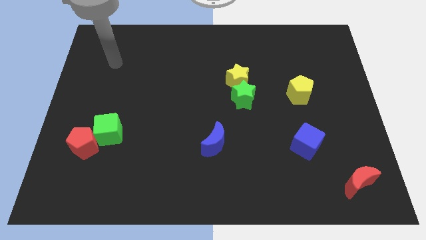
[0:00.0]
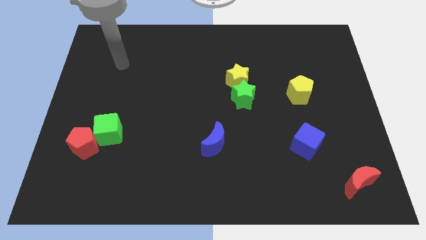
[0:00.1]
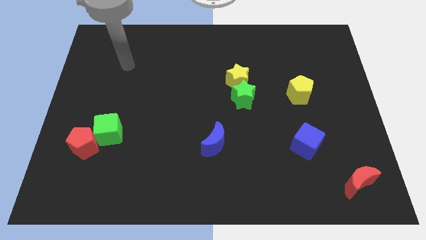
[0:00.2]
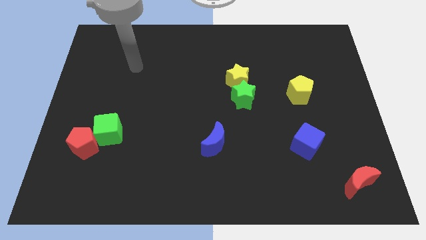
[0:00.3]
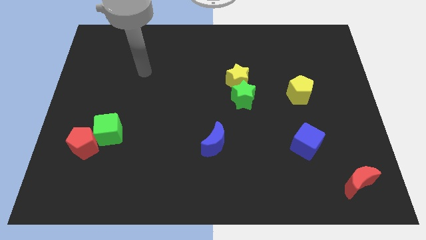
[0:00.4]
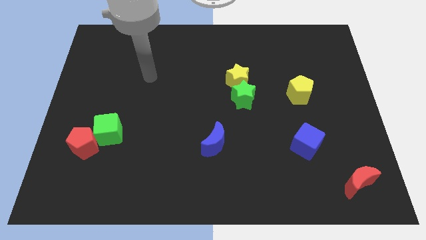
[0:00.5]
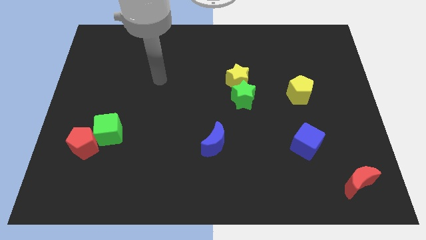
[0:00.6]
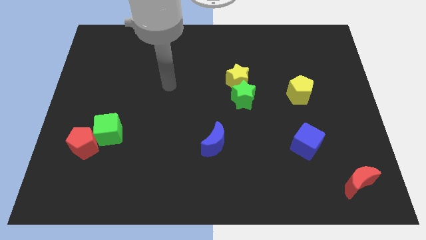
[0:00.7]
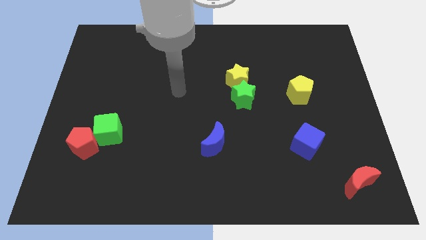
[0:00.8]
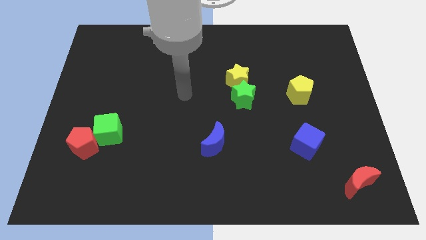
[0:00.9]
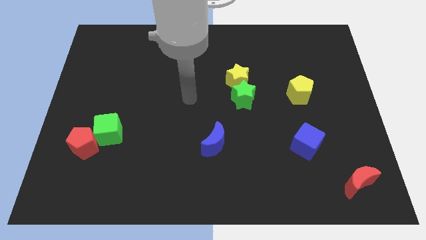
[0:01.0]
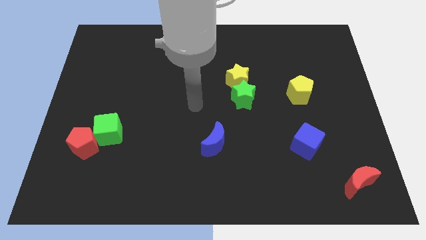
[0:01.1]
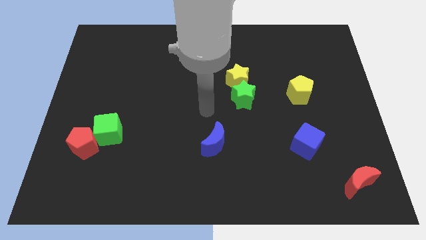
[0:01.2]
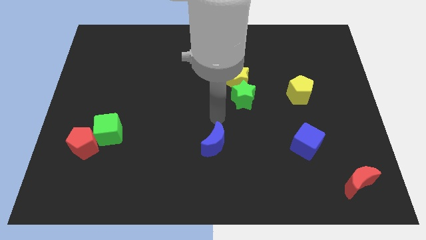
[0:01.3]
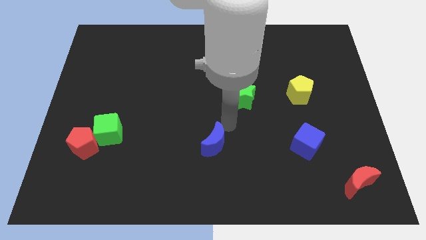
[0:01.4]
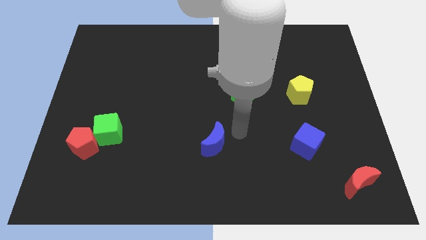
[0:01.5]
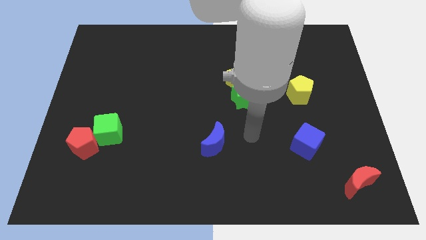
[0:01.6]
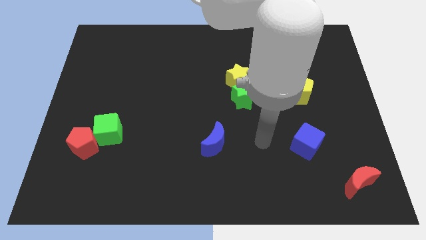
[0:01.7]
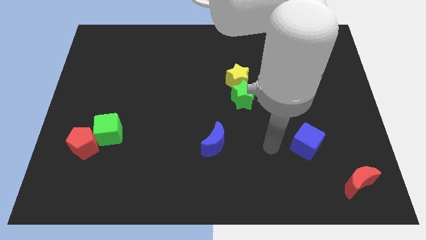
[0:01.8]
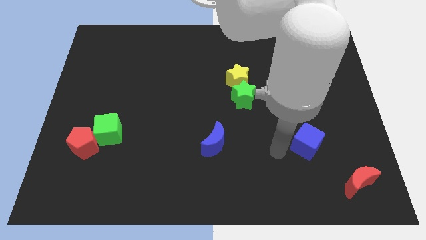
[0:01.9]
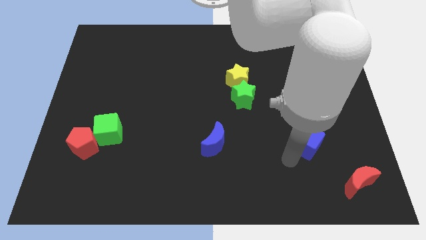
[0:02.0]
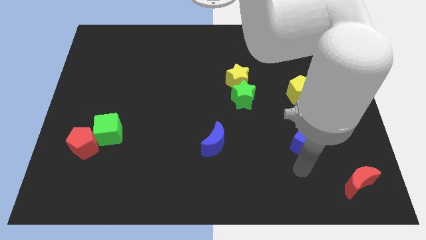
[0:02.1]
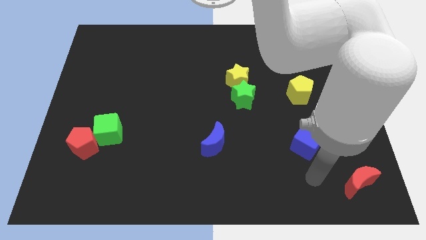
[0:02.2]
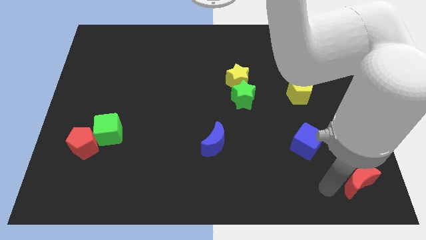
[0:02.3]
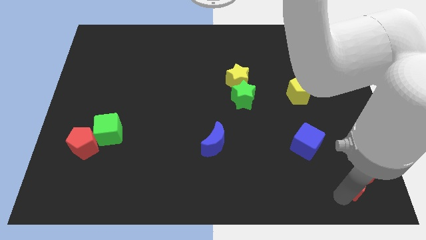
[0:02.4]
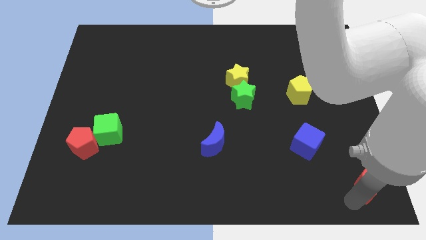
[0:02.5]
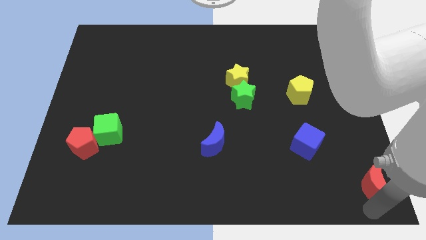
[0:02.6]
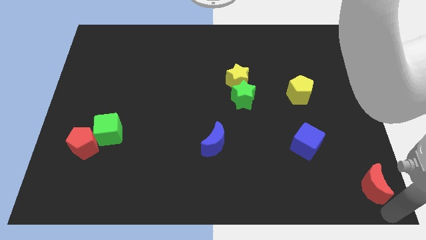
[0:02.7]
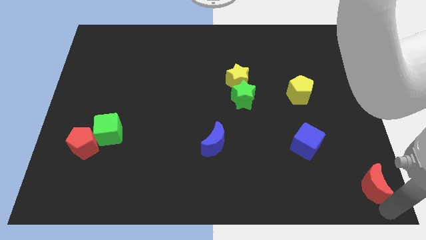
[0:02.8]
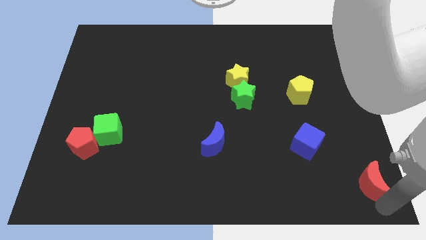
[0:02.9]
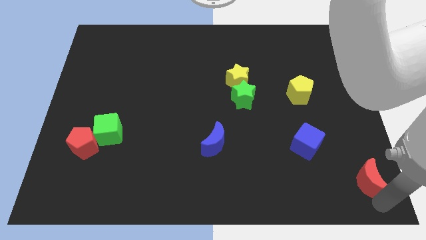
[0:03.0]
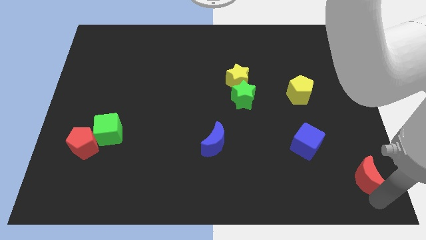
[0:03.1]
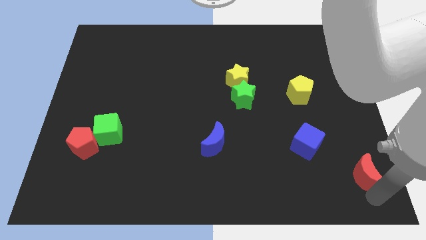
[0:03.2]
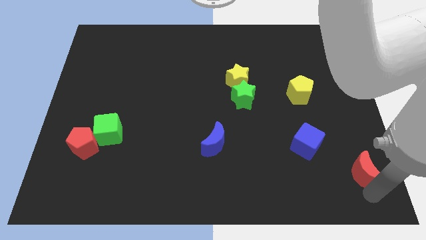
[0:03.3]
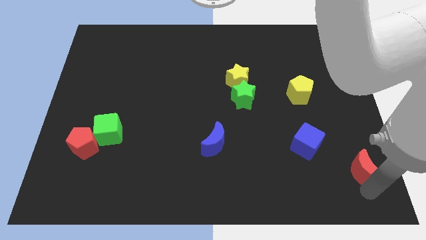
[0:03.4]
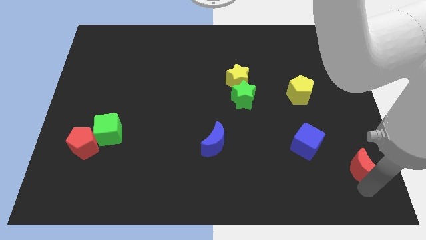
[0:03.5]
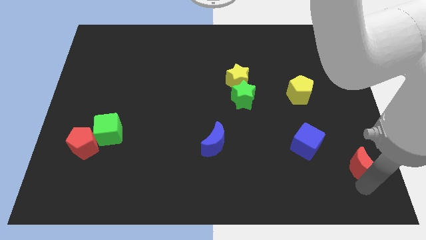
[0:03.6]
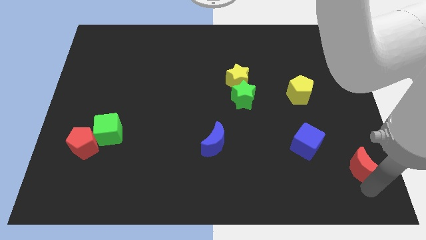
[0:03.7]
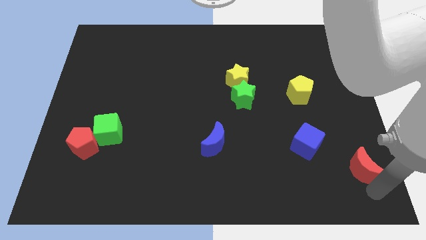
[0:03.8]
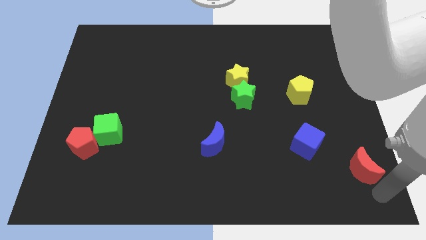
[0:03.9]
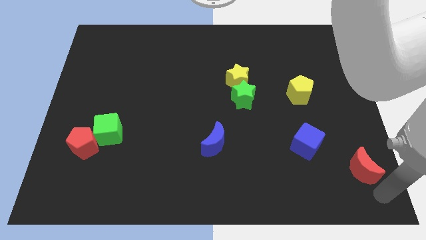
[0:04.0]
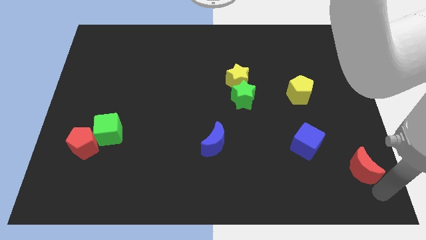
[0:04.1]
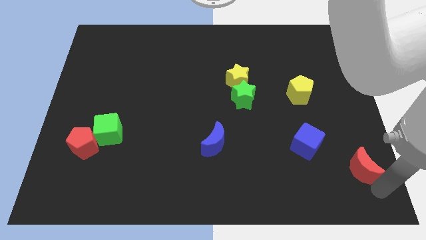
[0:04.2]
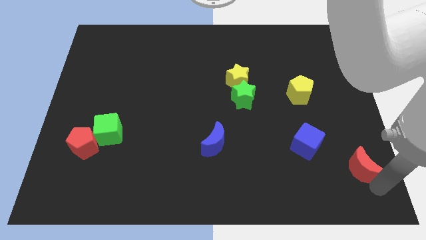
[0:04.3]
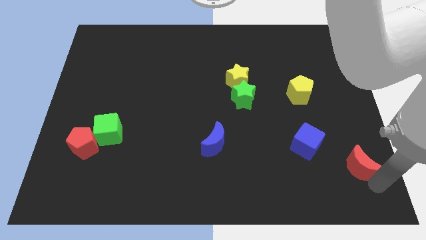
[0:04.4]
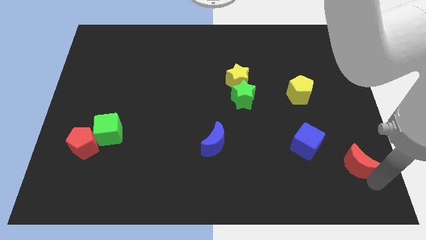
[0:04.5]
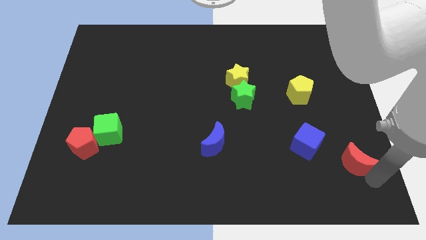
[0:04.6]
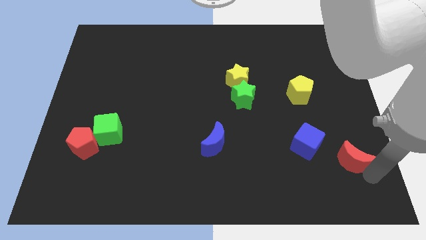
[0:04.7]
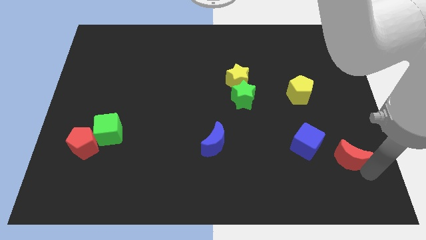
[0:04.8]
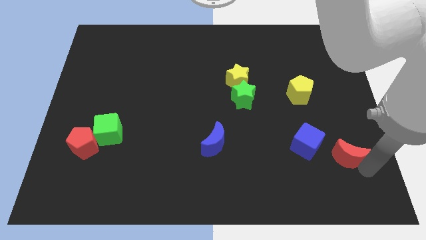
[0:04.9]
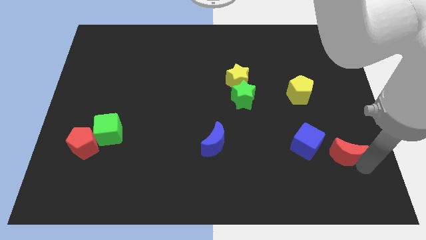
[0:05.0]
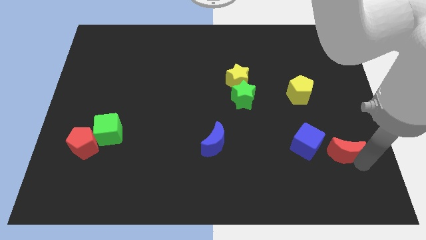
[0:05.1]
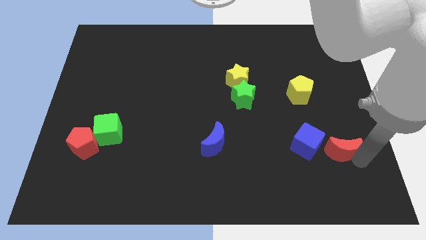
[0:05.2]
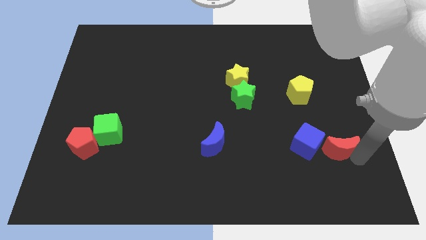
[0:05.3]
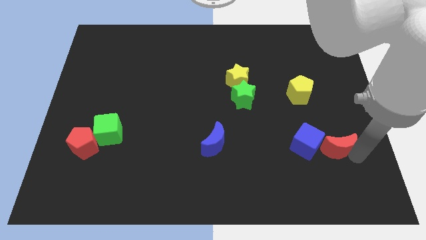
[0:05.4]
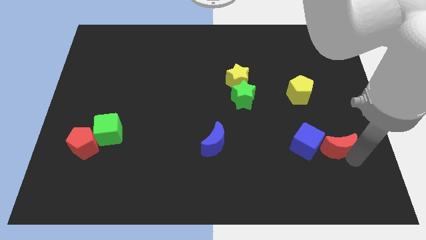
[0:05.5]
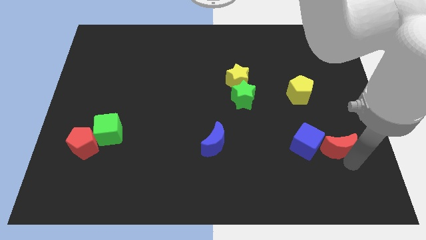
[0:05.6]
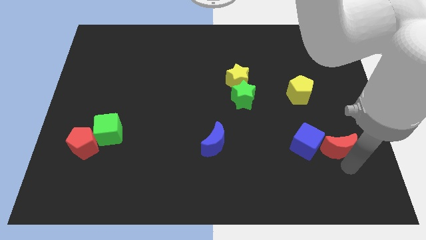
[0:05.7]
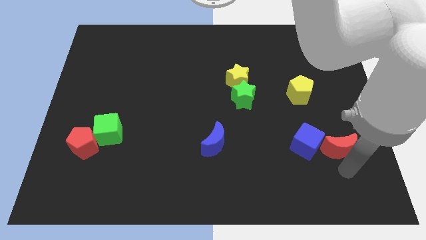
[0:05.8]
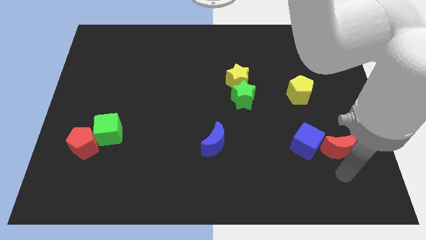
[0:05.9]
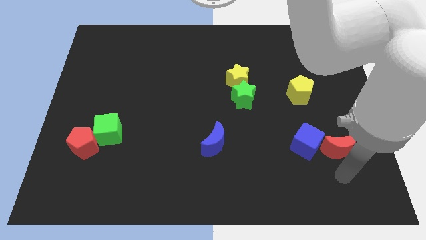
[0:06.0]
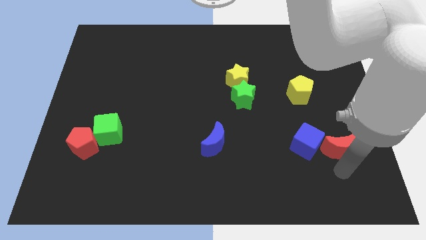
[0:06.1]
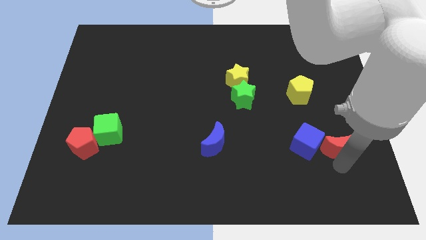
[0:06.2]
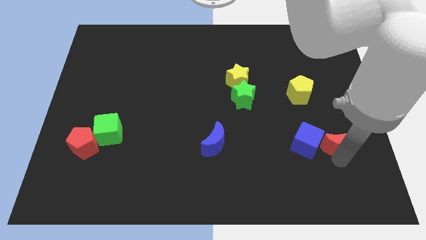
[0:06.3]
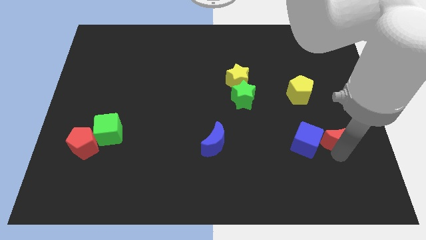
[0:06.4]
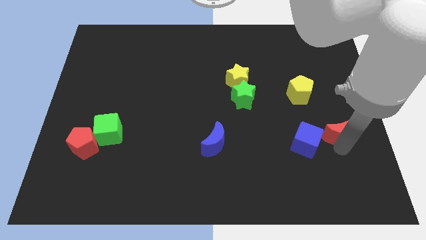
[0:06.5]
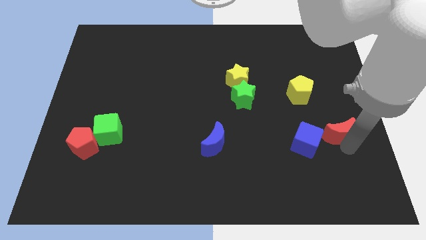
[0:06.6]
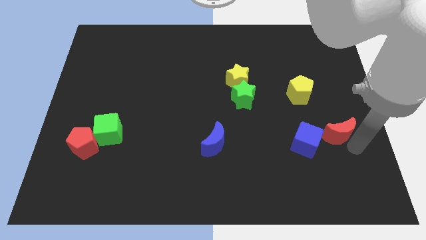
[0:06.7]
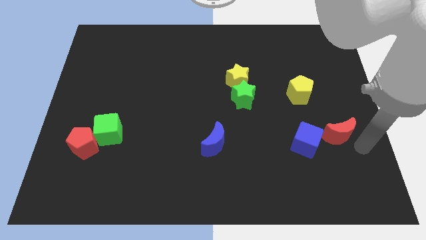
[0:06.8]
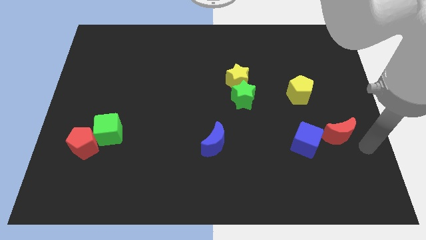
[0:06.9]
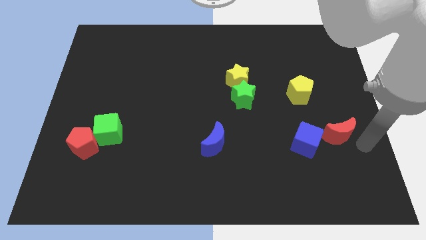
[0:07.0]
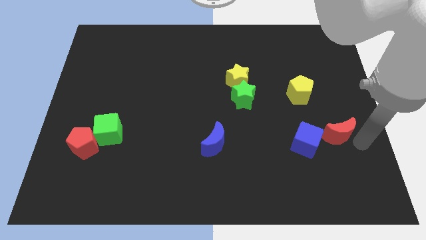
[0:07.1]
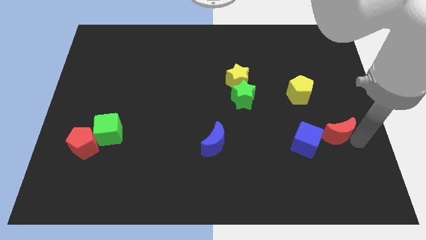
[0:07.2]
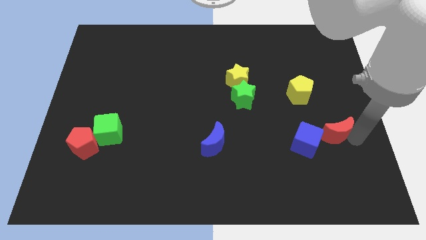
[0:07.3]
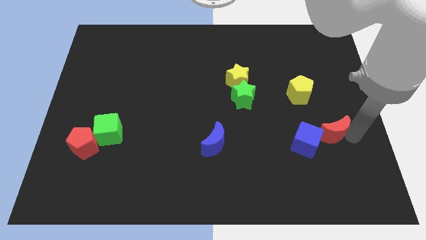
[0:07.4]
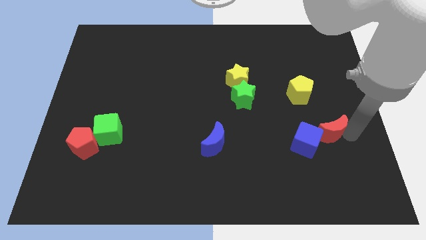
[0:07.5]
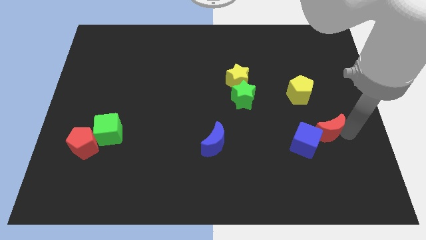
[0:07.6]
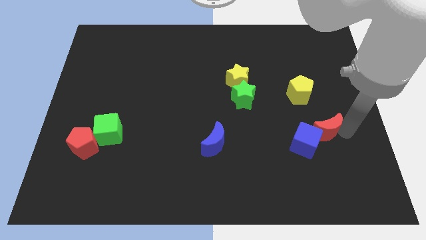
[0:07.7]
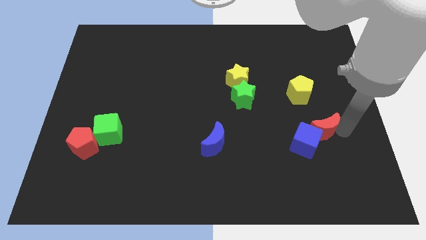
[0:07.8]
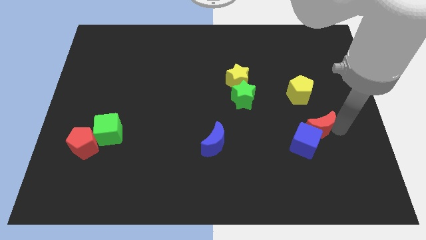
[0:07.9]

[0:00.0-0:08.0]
move the red moon to the top side of the blue cube
